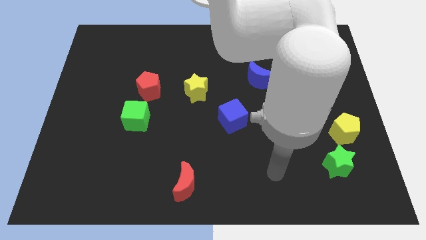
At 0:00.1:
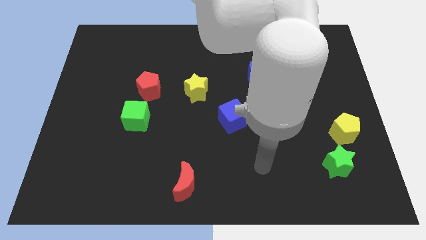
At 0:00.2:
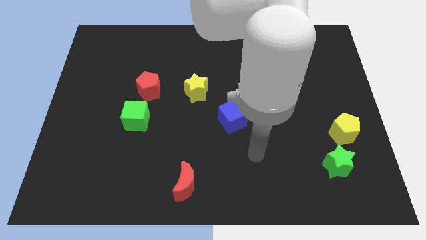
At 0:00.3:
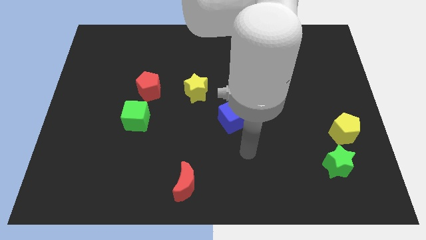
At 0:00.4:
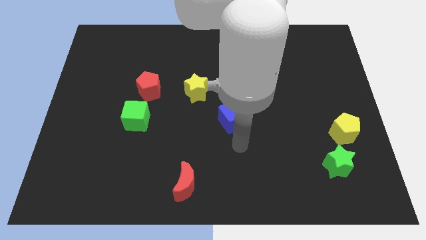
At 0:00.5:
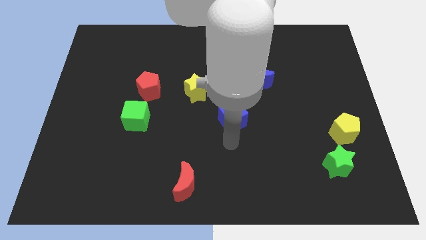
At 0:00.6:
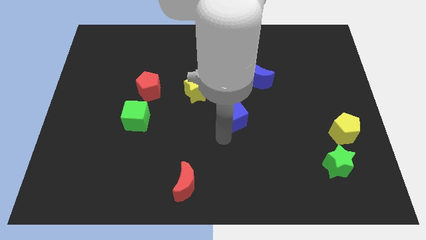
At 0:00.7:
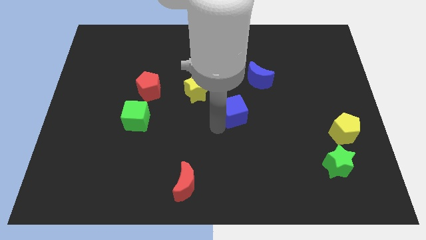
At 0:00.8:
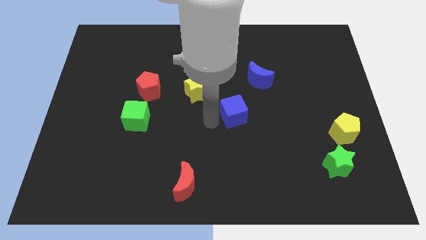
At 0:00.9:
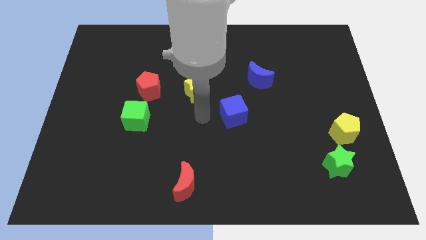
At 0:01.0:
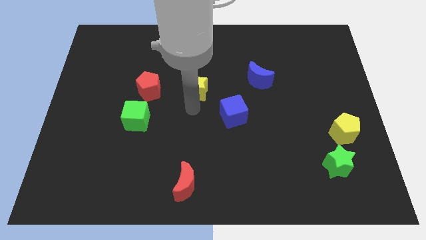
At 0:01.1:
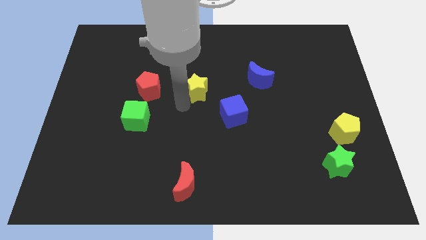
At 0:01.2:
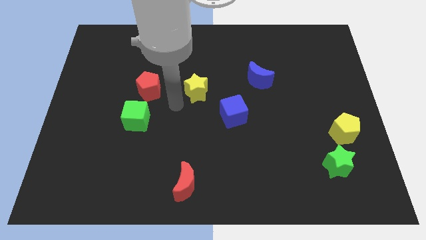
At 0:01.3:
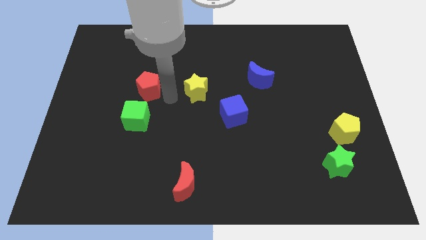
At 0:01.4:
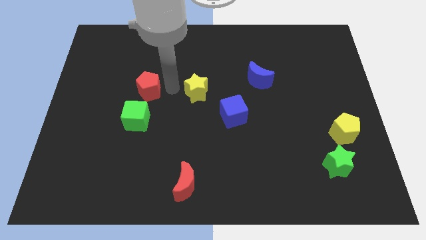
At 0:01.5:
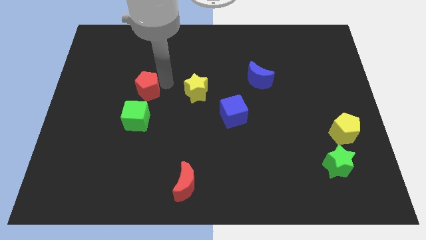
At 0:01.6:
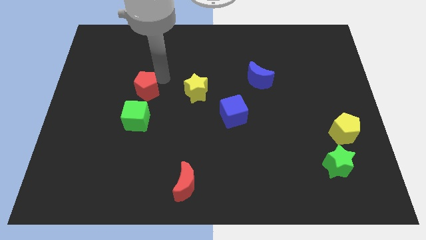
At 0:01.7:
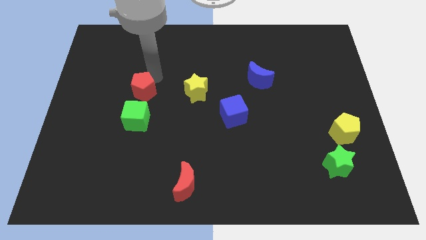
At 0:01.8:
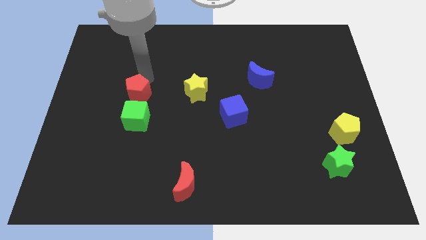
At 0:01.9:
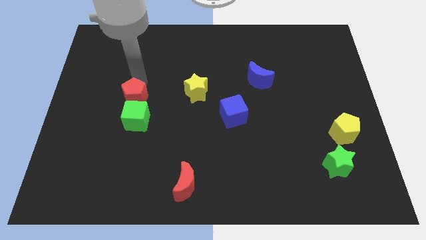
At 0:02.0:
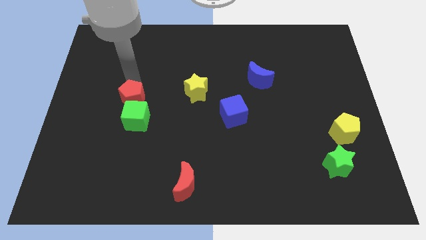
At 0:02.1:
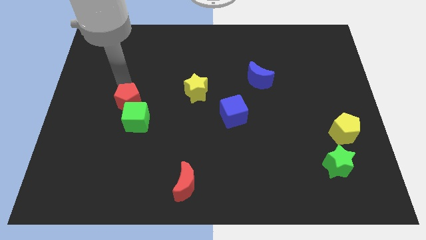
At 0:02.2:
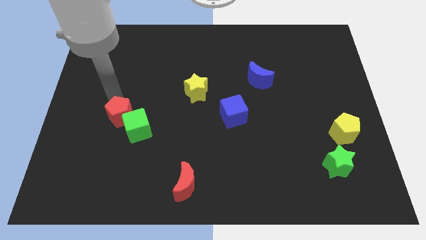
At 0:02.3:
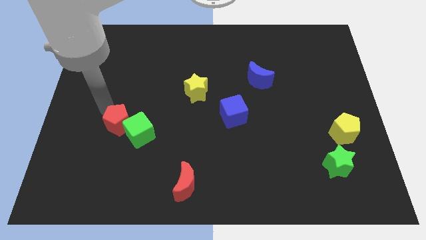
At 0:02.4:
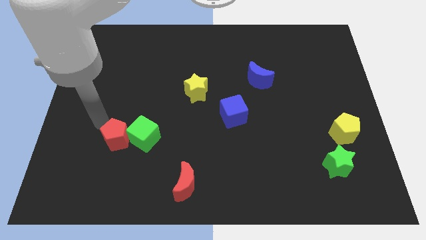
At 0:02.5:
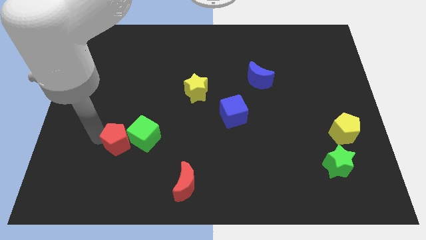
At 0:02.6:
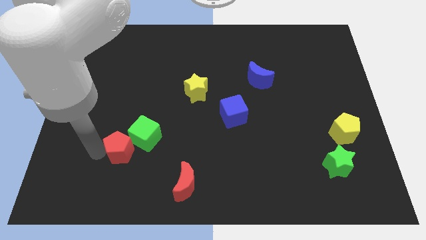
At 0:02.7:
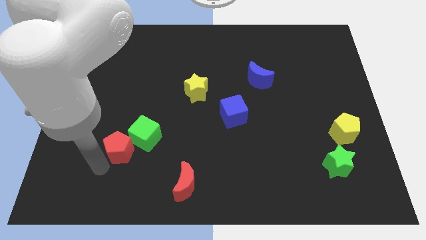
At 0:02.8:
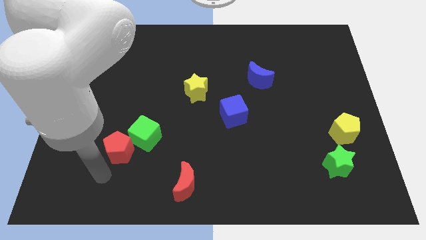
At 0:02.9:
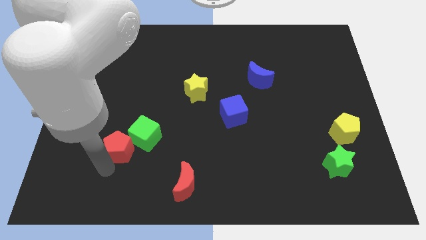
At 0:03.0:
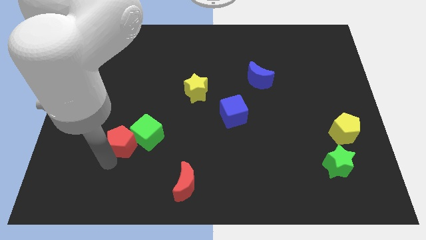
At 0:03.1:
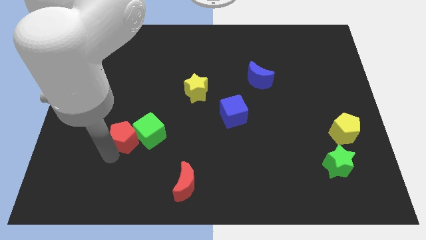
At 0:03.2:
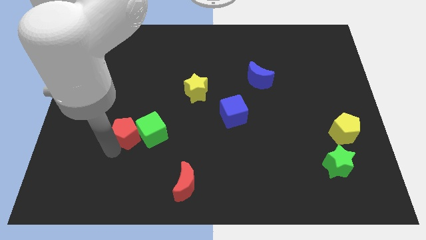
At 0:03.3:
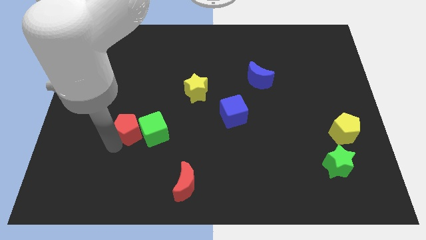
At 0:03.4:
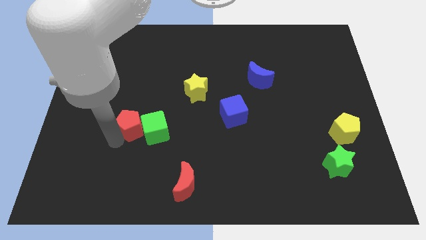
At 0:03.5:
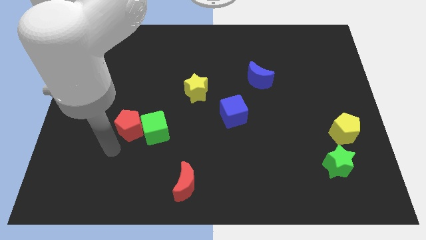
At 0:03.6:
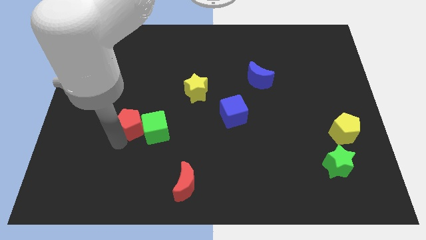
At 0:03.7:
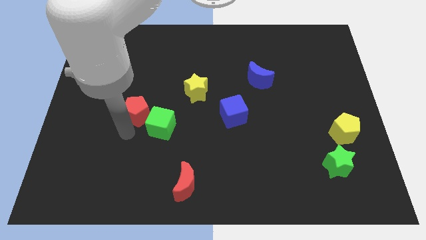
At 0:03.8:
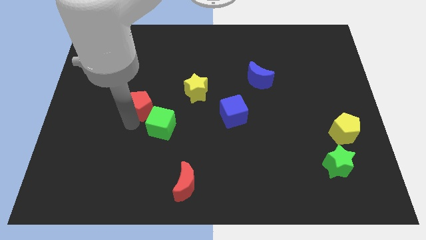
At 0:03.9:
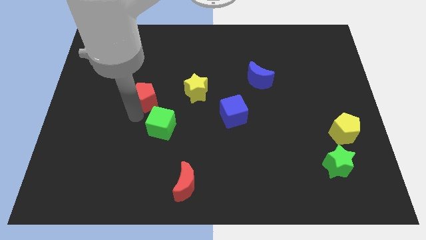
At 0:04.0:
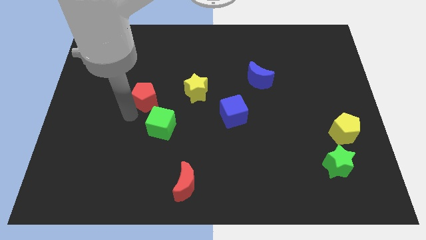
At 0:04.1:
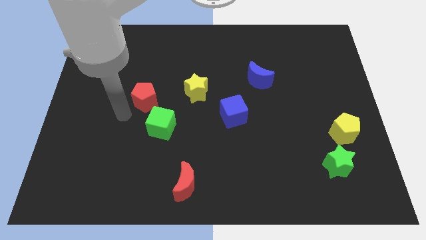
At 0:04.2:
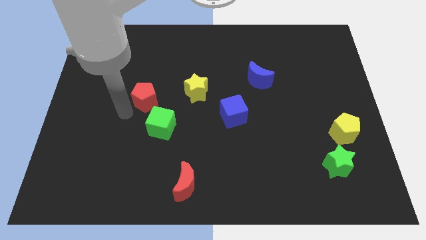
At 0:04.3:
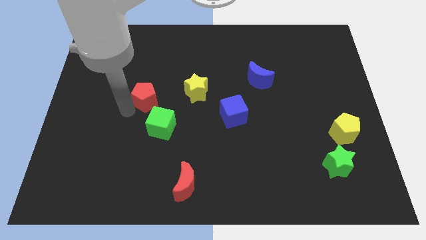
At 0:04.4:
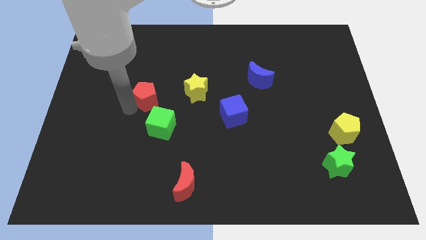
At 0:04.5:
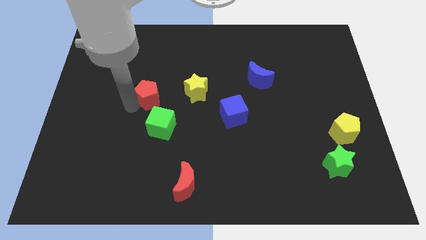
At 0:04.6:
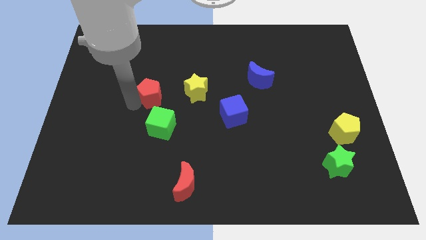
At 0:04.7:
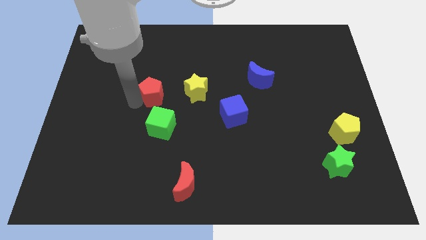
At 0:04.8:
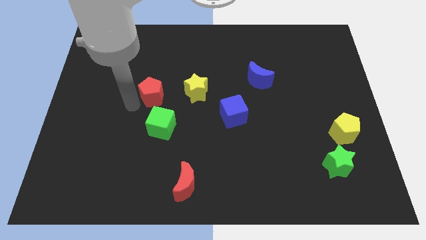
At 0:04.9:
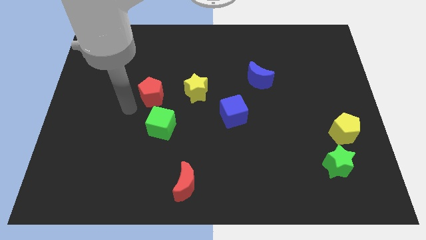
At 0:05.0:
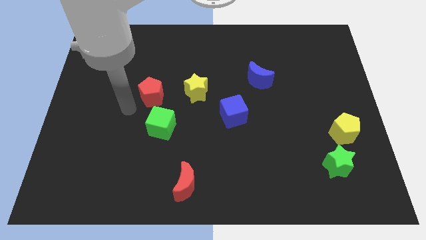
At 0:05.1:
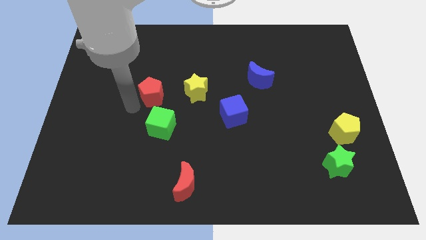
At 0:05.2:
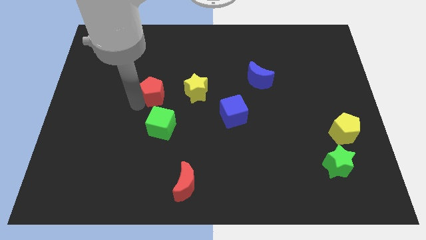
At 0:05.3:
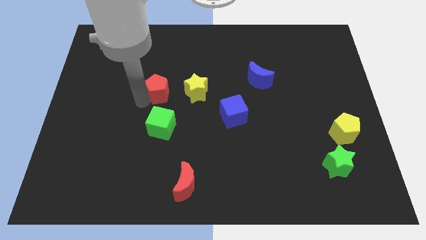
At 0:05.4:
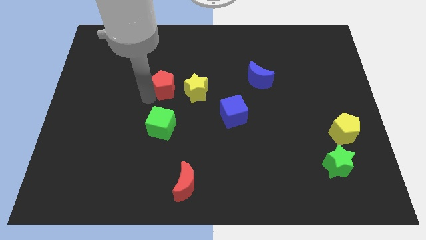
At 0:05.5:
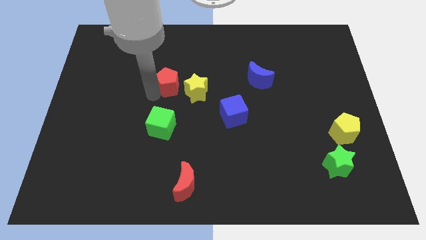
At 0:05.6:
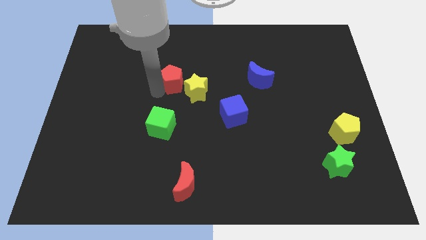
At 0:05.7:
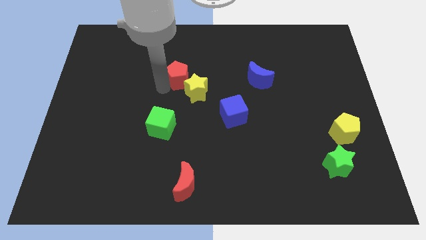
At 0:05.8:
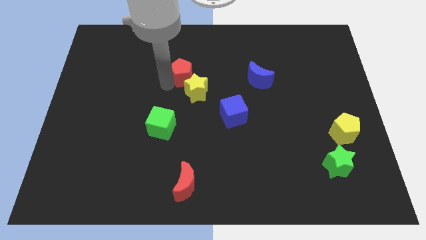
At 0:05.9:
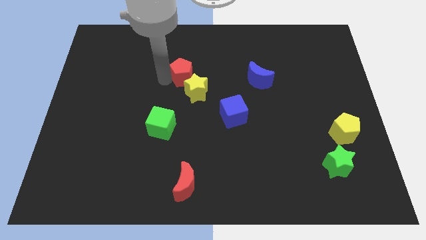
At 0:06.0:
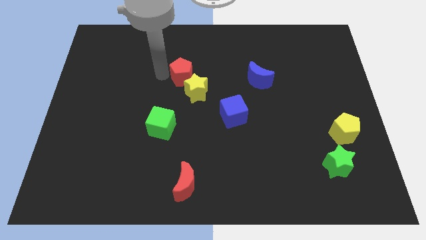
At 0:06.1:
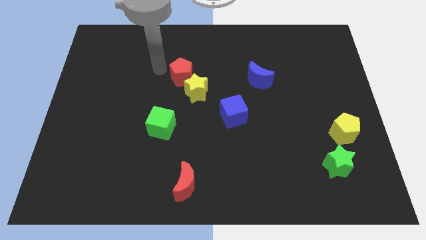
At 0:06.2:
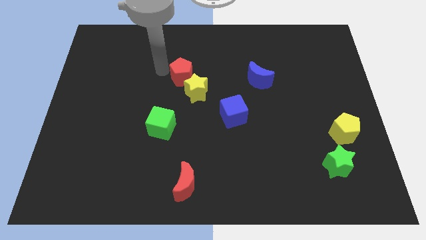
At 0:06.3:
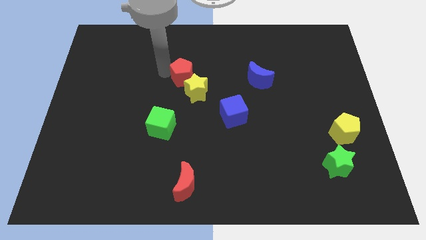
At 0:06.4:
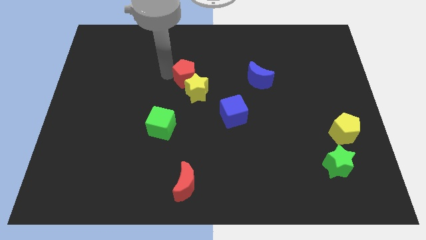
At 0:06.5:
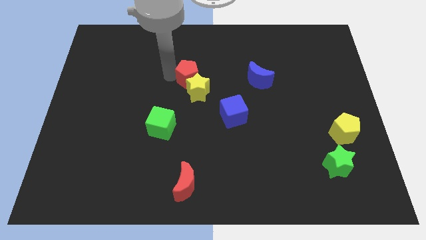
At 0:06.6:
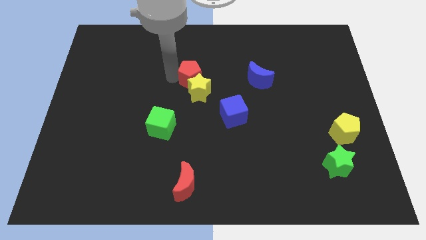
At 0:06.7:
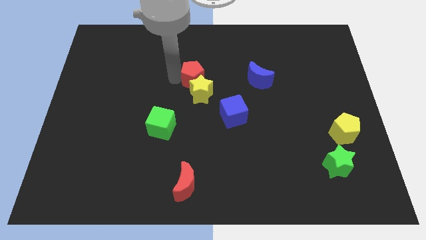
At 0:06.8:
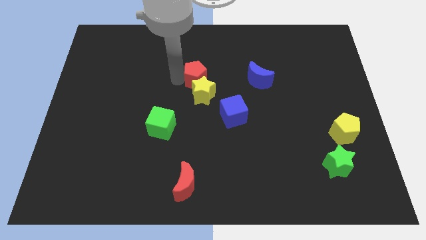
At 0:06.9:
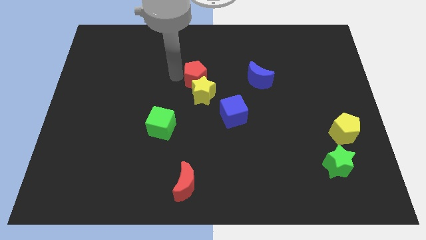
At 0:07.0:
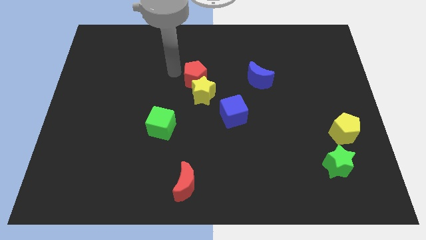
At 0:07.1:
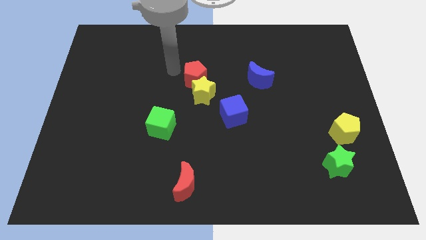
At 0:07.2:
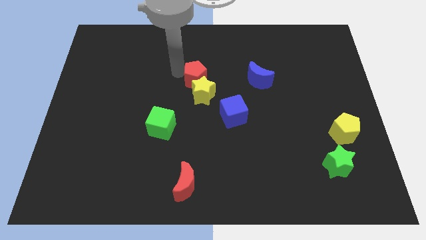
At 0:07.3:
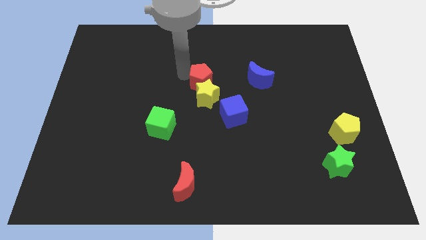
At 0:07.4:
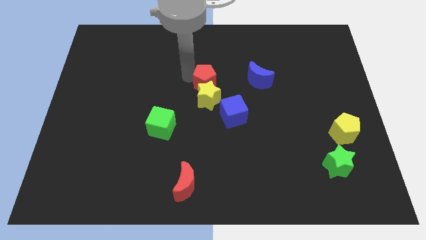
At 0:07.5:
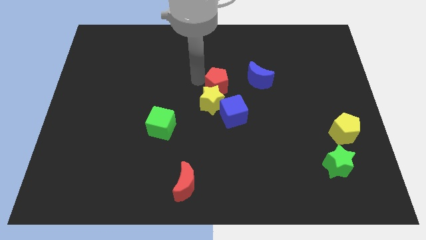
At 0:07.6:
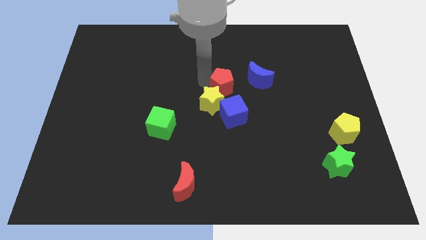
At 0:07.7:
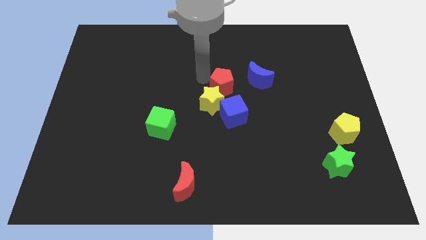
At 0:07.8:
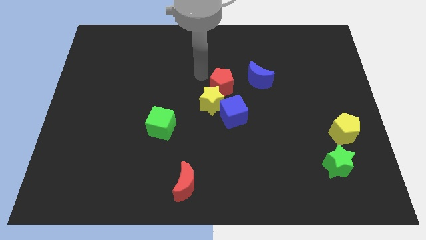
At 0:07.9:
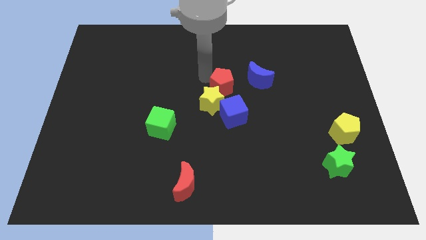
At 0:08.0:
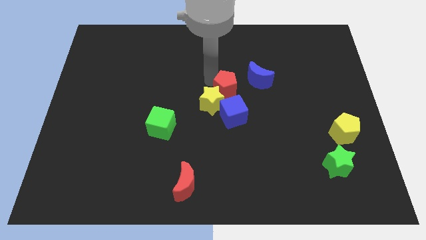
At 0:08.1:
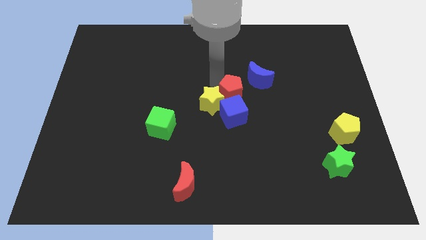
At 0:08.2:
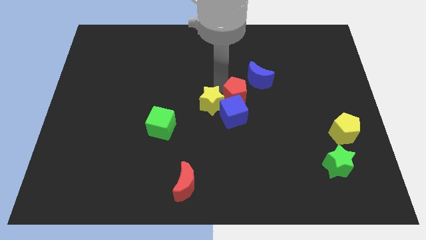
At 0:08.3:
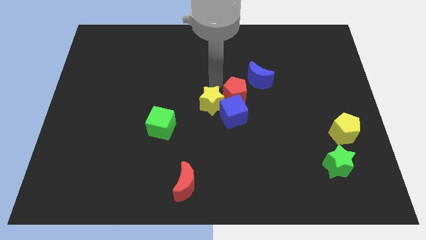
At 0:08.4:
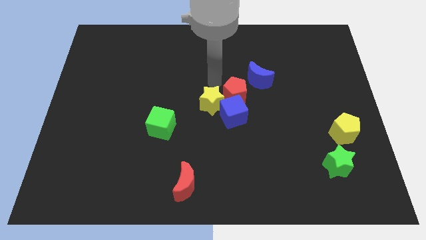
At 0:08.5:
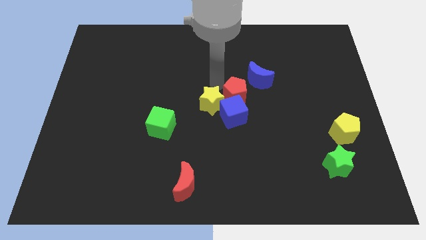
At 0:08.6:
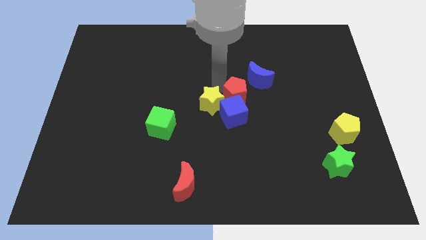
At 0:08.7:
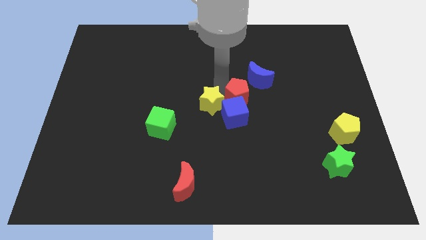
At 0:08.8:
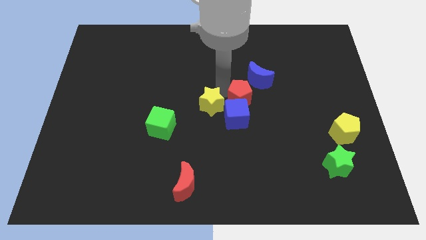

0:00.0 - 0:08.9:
put the red pentagon below the blue moon
